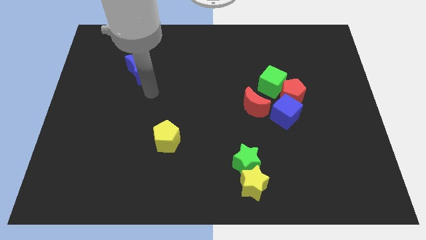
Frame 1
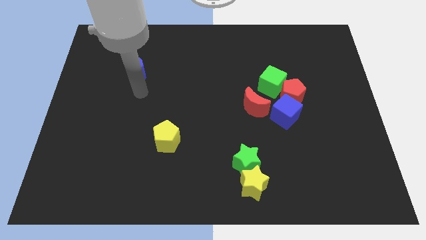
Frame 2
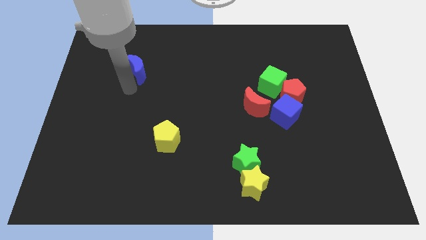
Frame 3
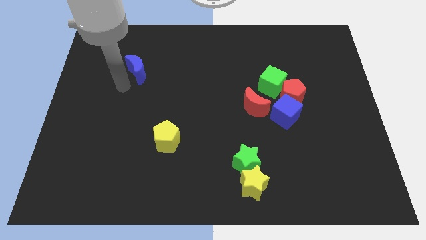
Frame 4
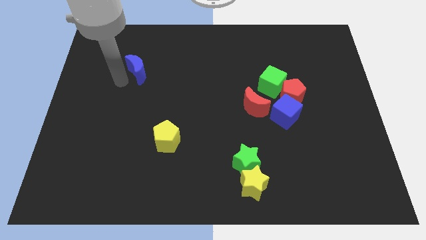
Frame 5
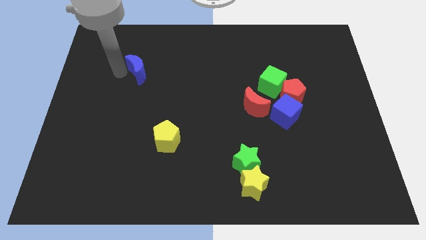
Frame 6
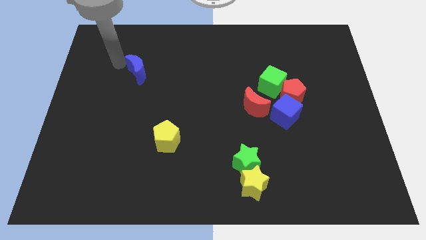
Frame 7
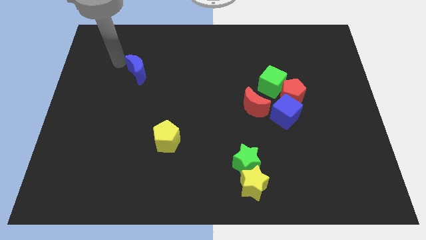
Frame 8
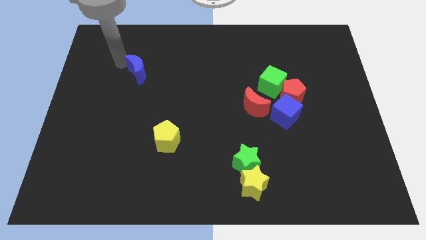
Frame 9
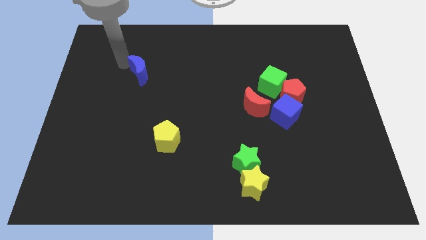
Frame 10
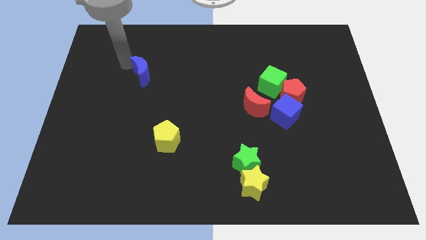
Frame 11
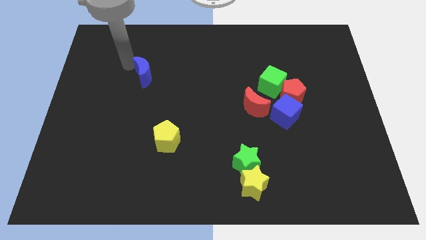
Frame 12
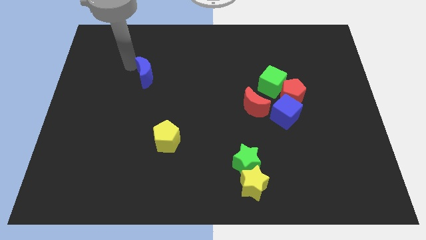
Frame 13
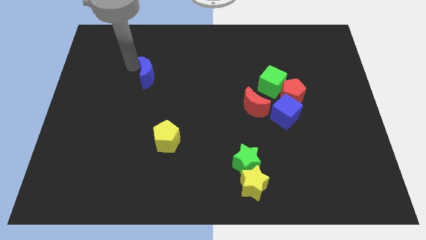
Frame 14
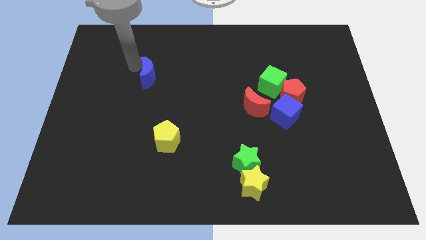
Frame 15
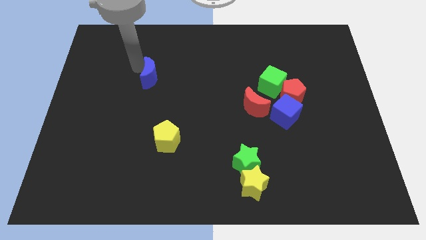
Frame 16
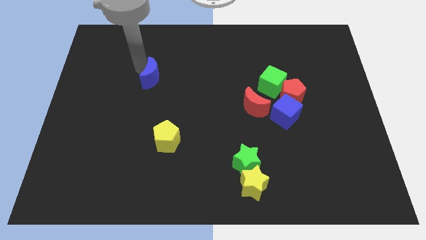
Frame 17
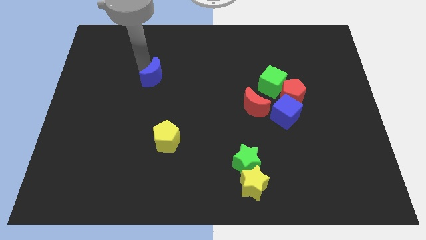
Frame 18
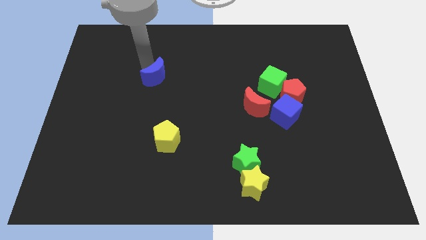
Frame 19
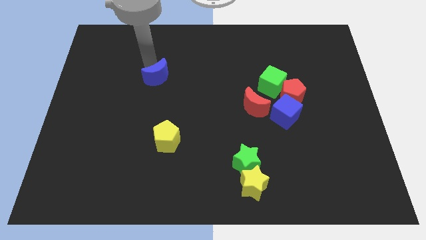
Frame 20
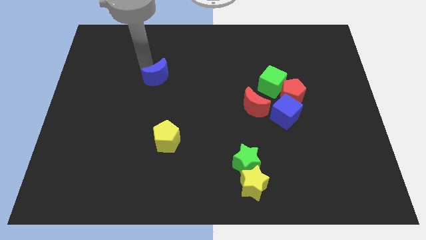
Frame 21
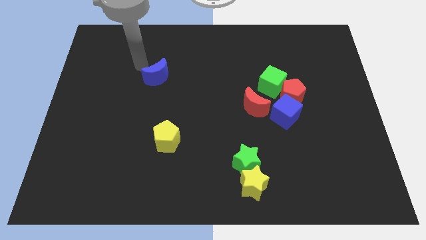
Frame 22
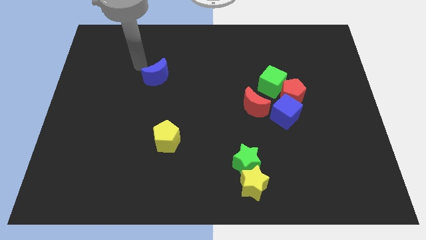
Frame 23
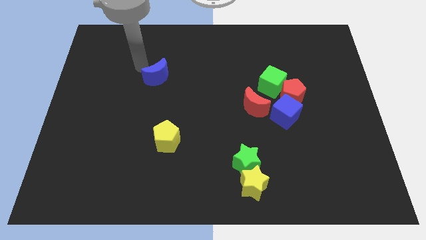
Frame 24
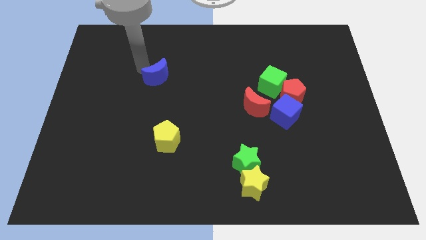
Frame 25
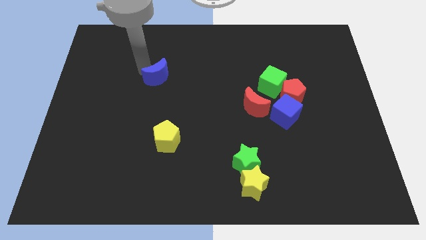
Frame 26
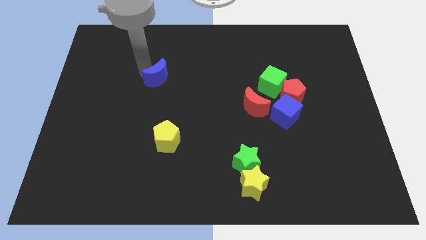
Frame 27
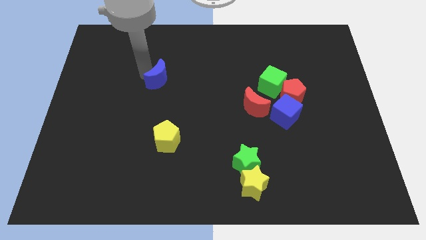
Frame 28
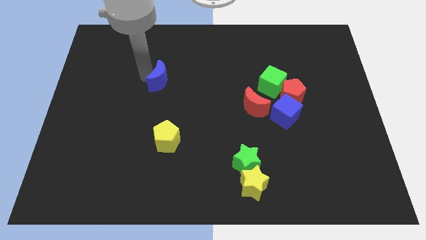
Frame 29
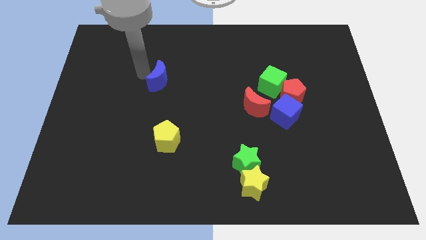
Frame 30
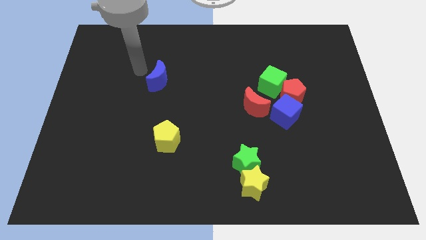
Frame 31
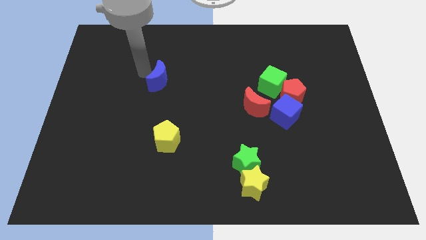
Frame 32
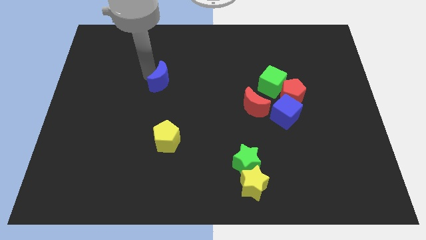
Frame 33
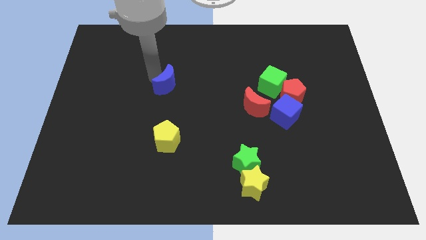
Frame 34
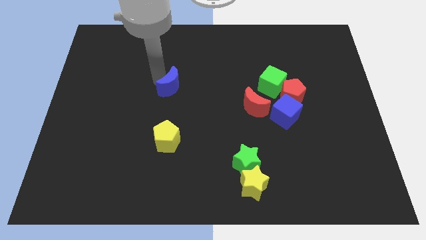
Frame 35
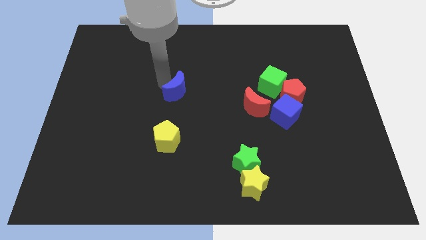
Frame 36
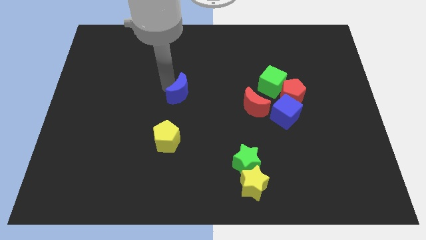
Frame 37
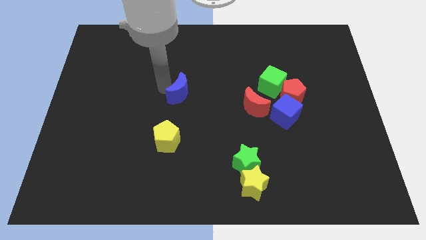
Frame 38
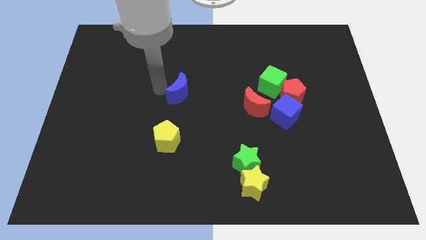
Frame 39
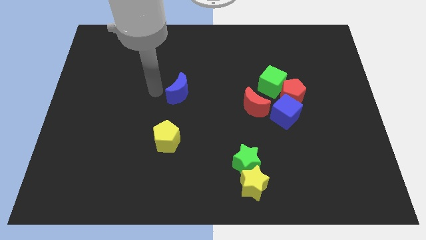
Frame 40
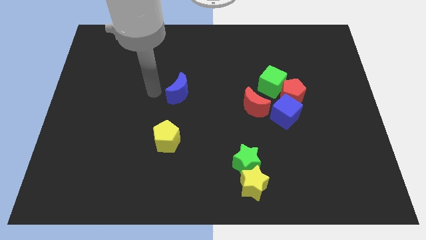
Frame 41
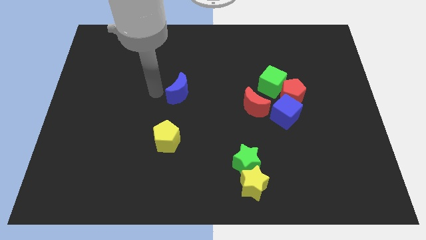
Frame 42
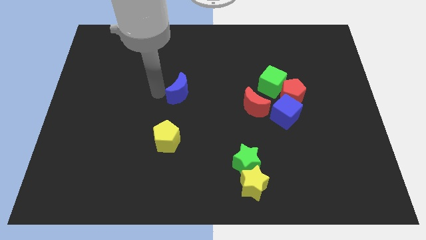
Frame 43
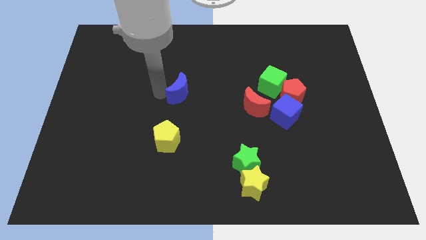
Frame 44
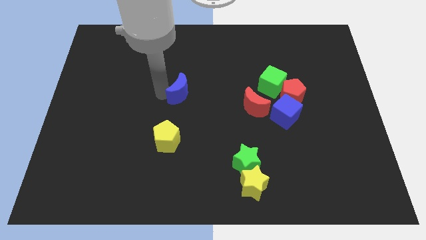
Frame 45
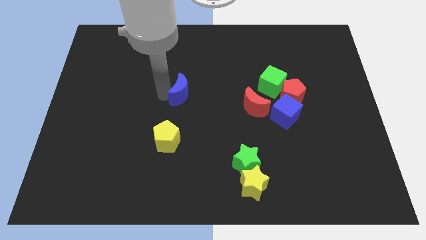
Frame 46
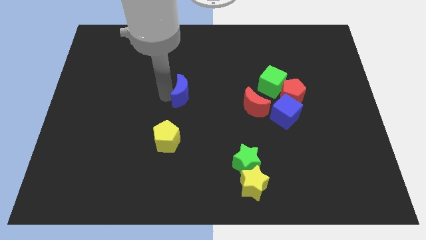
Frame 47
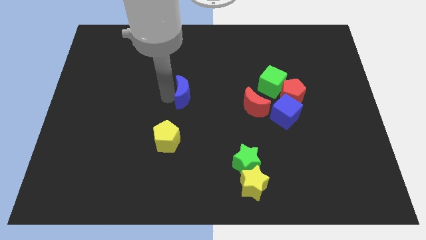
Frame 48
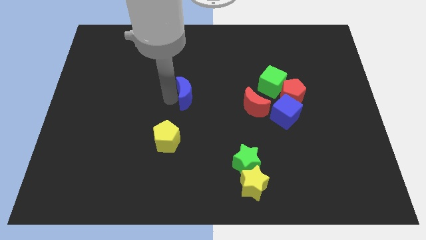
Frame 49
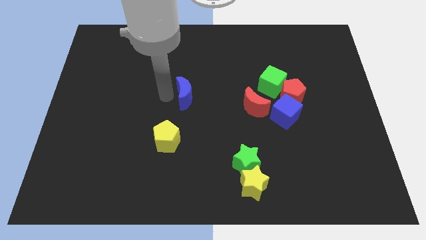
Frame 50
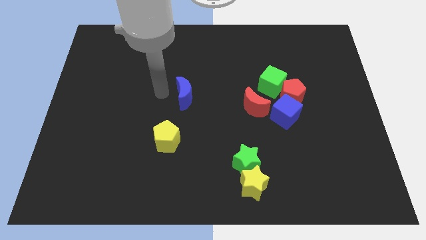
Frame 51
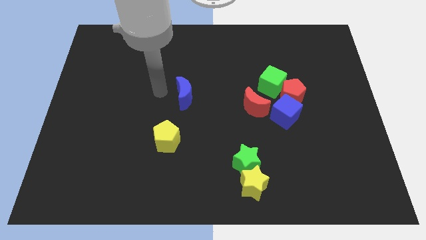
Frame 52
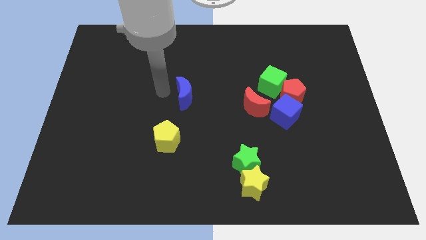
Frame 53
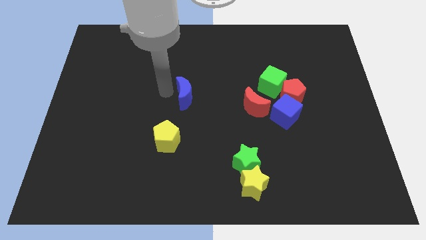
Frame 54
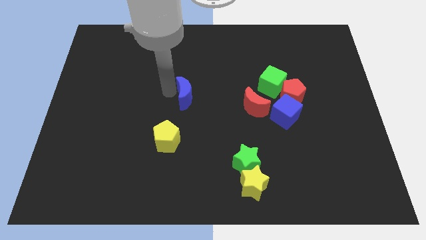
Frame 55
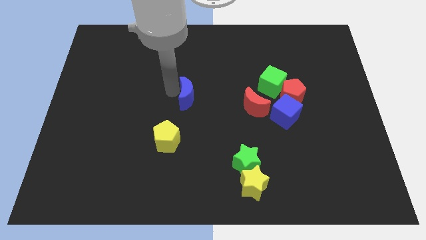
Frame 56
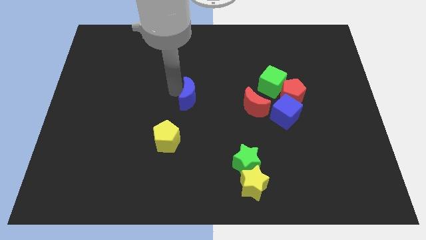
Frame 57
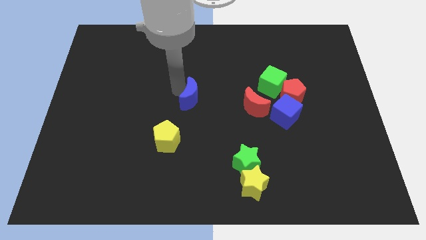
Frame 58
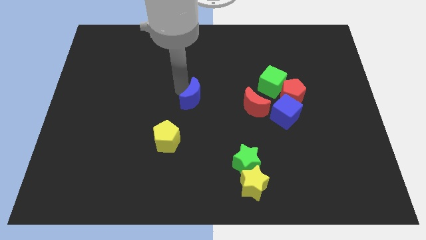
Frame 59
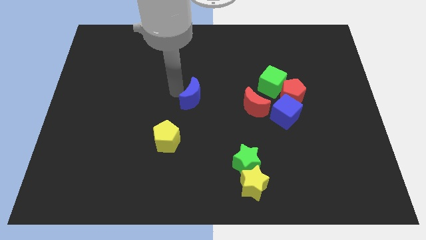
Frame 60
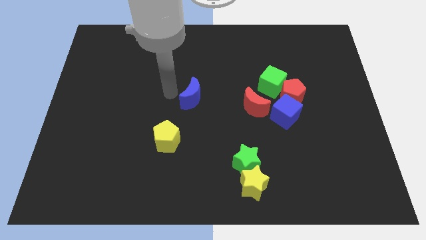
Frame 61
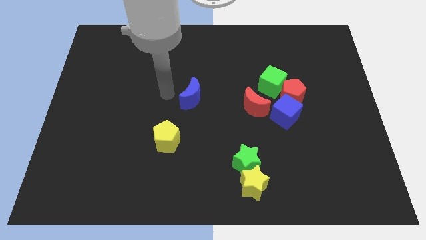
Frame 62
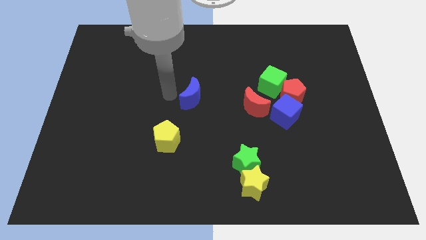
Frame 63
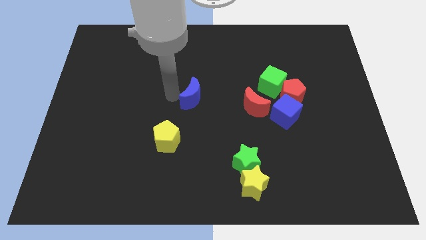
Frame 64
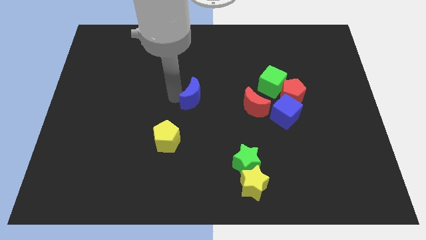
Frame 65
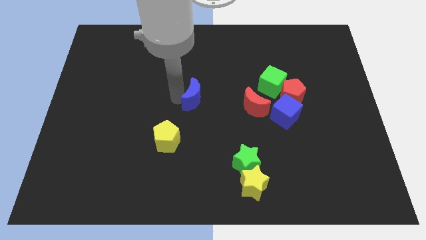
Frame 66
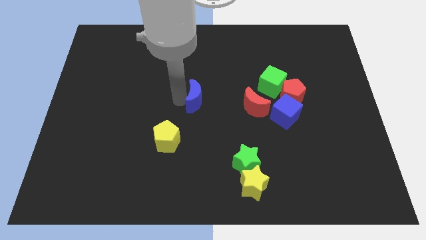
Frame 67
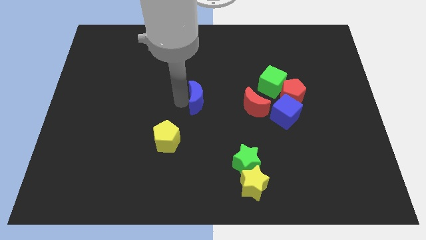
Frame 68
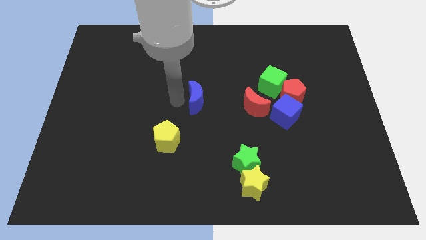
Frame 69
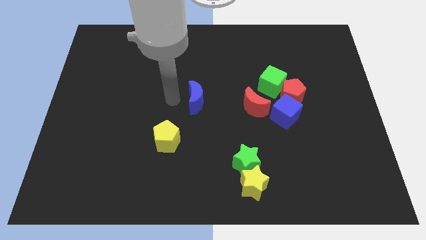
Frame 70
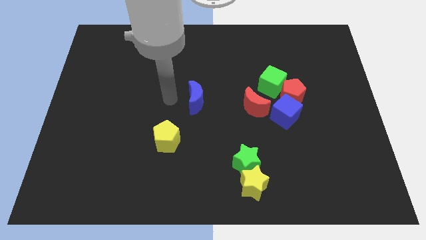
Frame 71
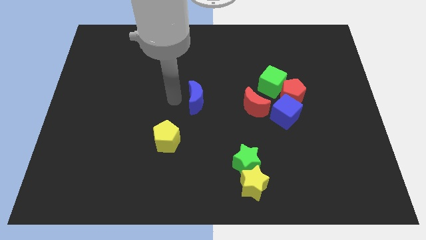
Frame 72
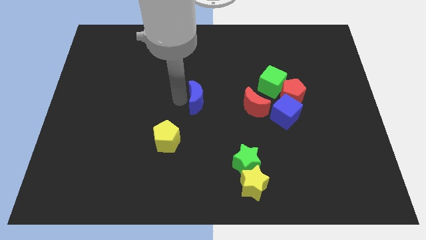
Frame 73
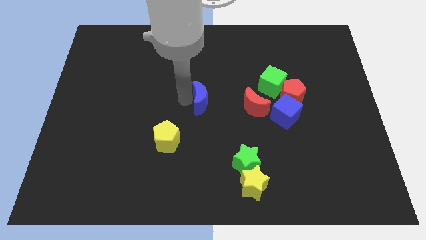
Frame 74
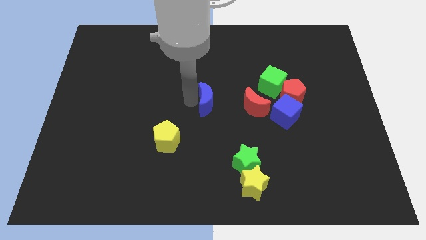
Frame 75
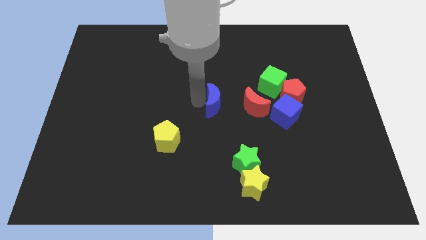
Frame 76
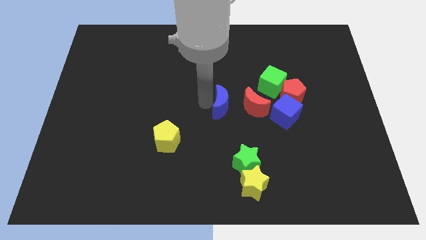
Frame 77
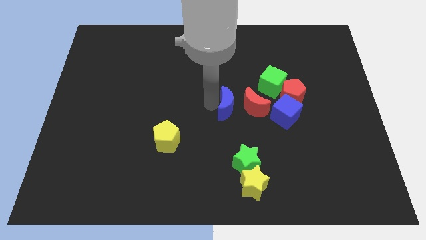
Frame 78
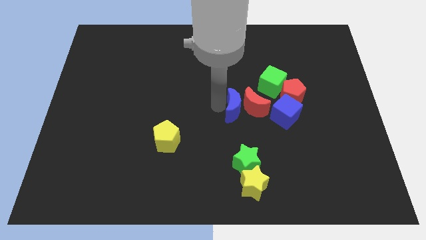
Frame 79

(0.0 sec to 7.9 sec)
move the blue moon close to the red moon
